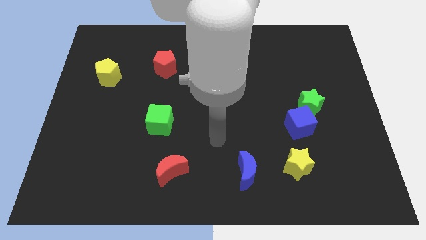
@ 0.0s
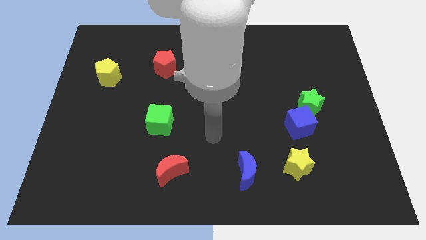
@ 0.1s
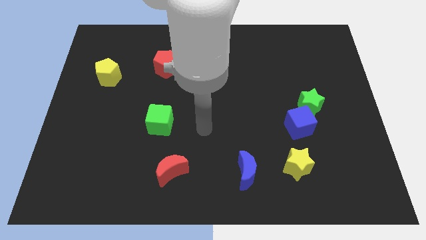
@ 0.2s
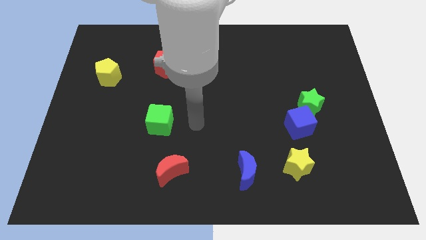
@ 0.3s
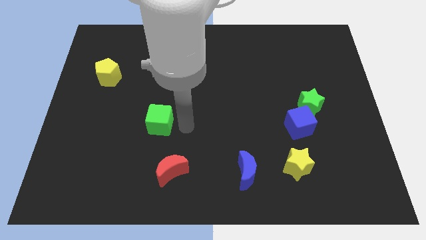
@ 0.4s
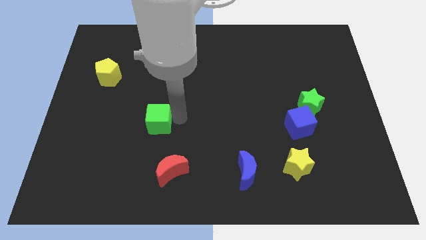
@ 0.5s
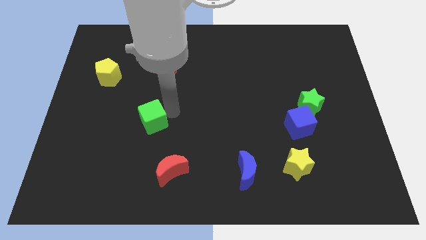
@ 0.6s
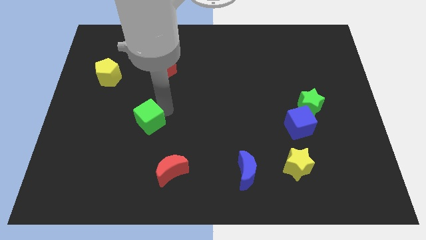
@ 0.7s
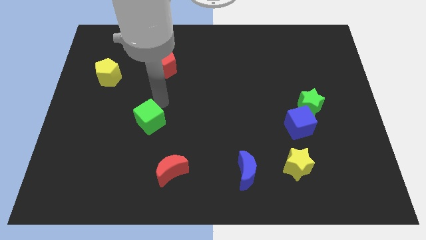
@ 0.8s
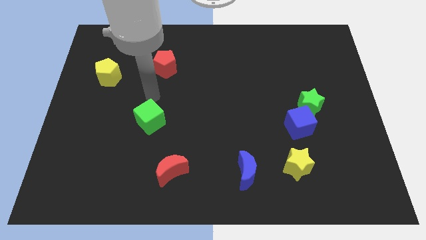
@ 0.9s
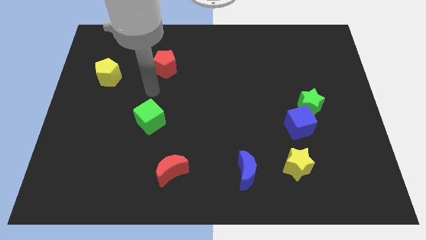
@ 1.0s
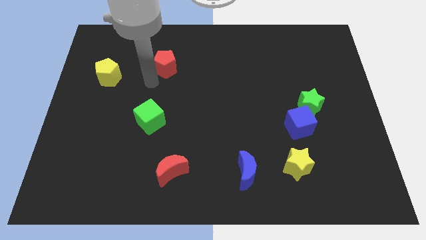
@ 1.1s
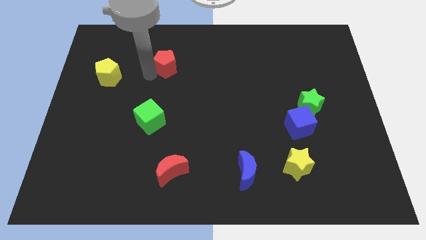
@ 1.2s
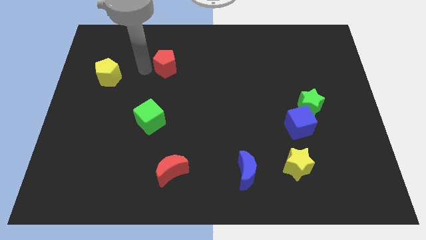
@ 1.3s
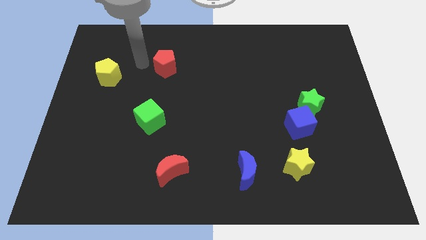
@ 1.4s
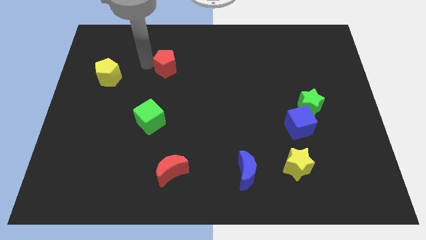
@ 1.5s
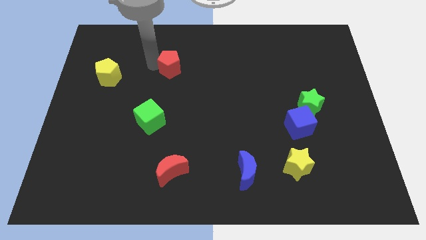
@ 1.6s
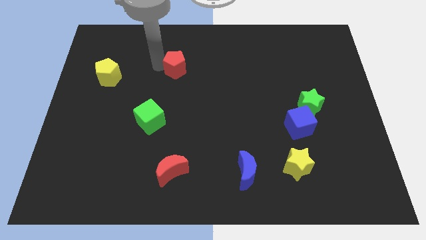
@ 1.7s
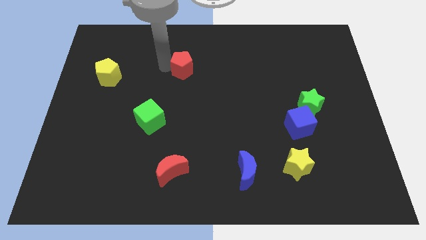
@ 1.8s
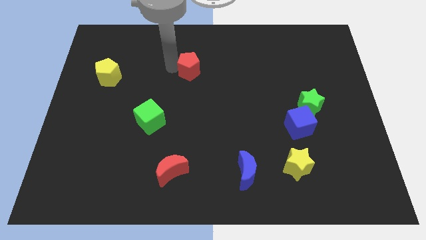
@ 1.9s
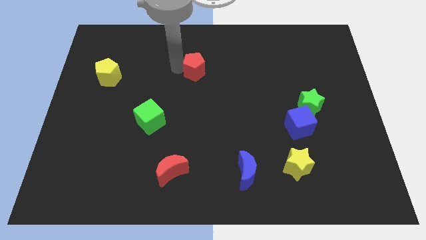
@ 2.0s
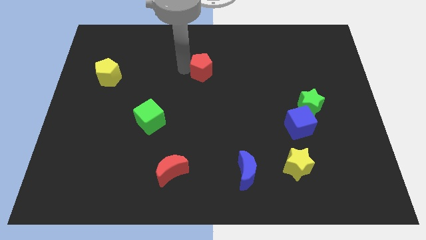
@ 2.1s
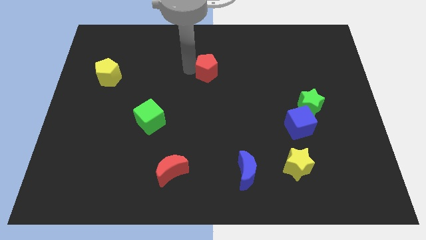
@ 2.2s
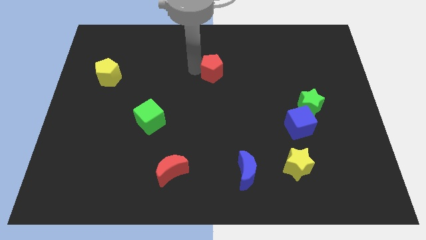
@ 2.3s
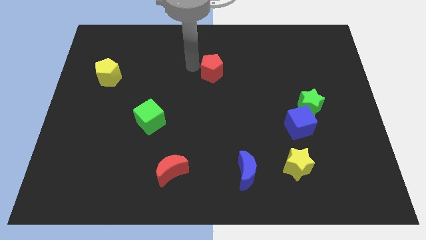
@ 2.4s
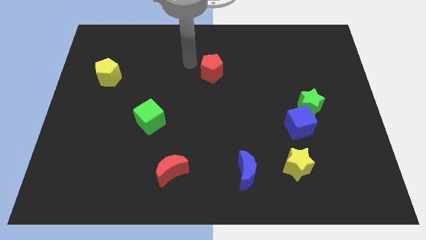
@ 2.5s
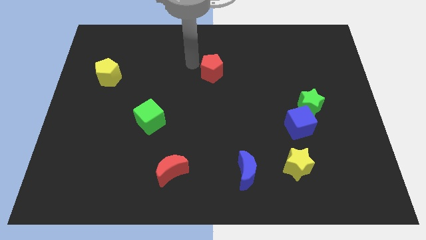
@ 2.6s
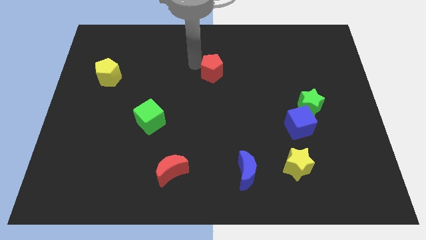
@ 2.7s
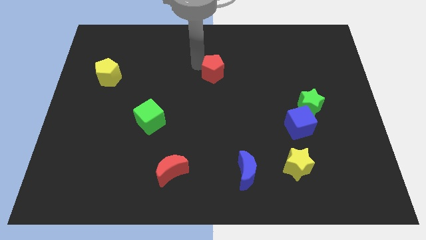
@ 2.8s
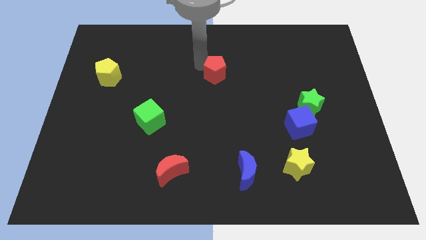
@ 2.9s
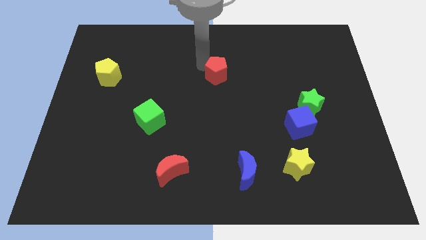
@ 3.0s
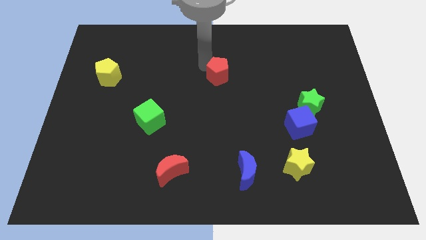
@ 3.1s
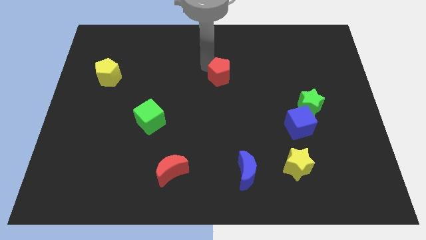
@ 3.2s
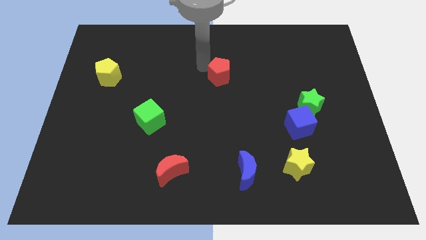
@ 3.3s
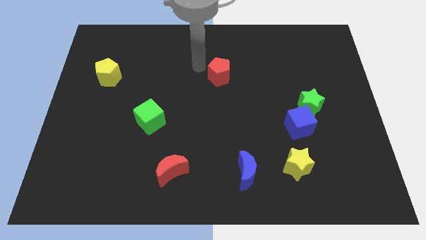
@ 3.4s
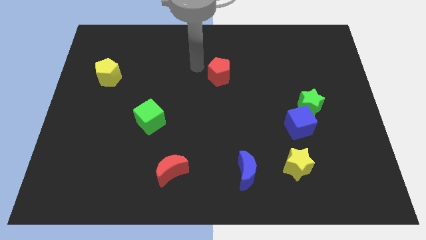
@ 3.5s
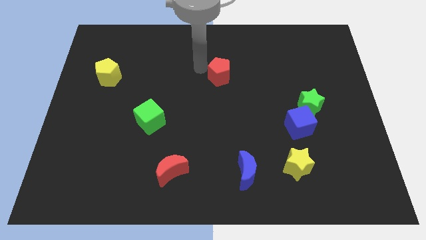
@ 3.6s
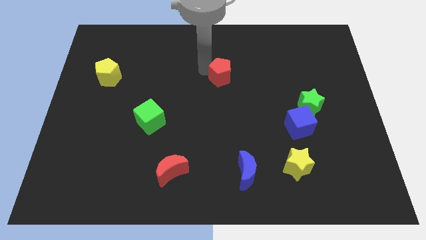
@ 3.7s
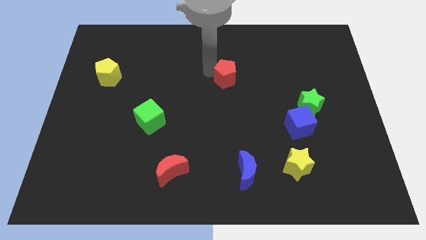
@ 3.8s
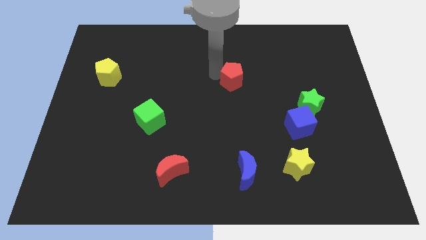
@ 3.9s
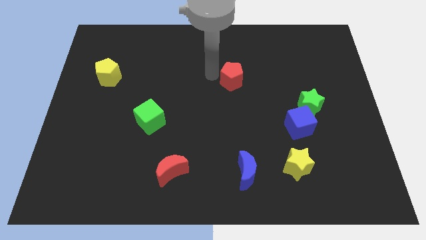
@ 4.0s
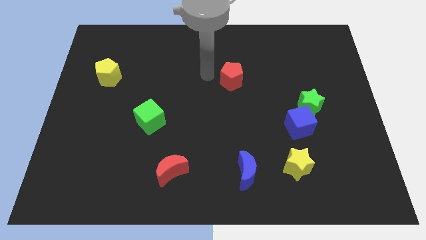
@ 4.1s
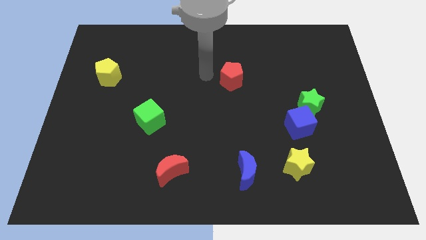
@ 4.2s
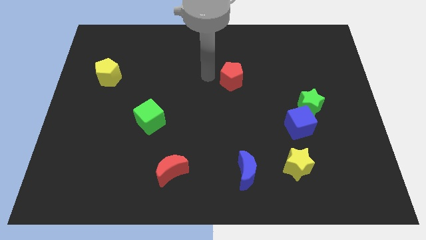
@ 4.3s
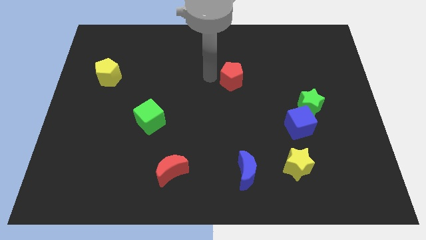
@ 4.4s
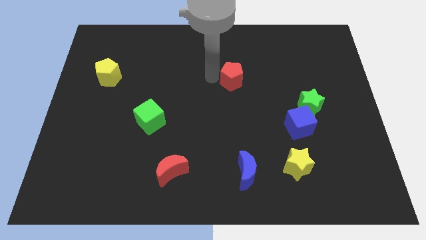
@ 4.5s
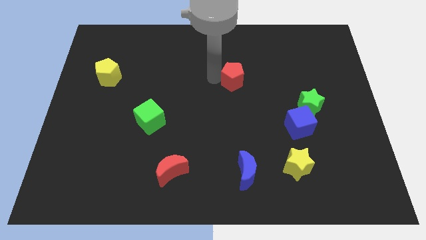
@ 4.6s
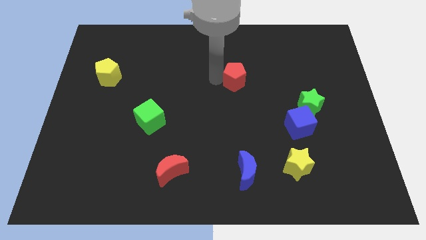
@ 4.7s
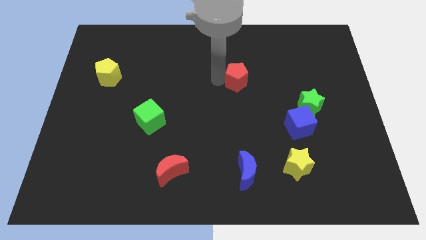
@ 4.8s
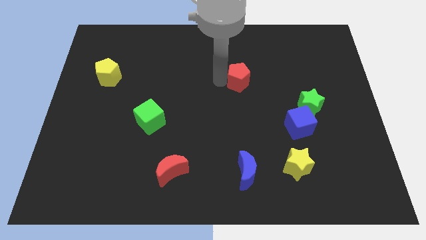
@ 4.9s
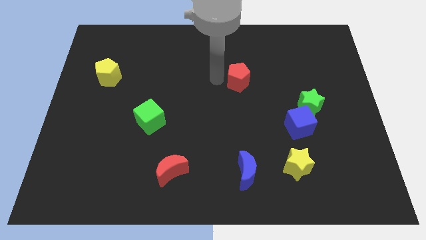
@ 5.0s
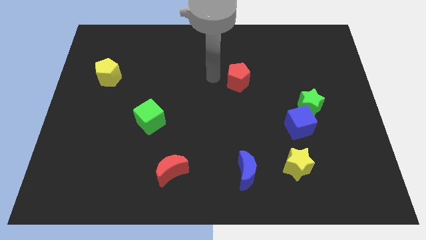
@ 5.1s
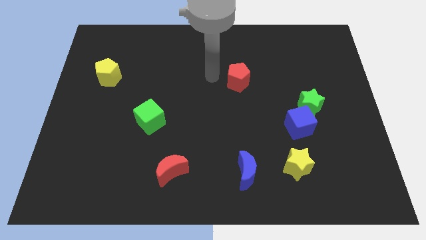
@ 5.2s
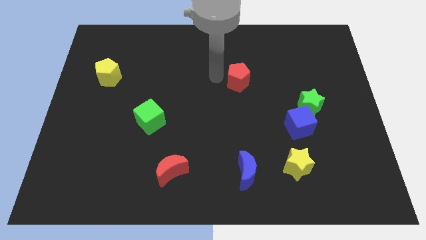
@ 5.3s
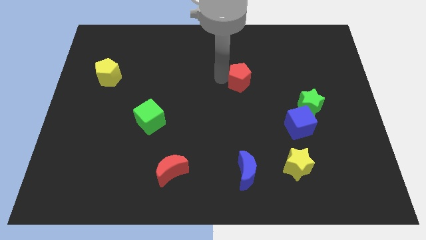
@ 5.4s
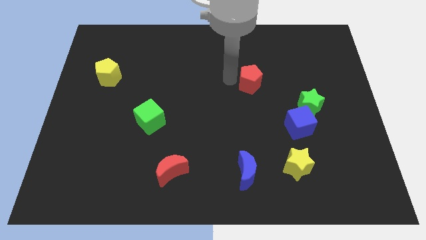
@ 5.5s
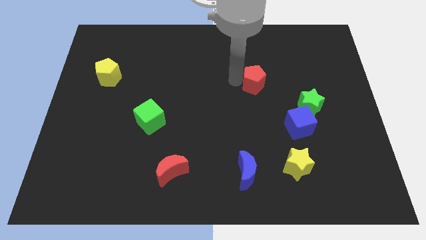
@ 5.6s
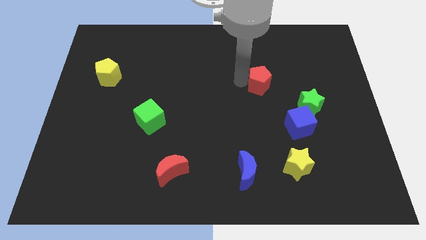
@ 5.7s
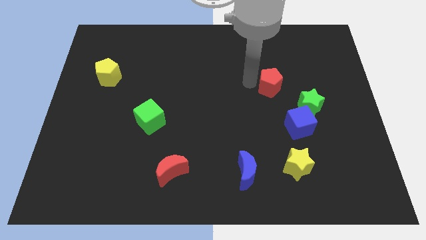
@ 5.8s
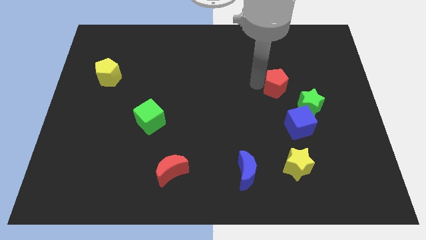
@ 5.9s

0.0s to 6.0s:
move the red pentagon above the blue cube
